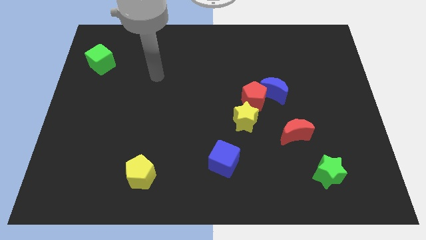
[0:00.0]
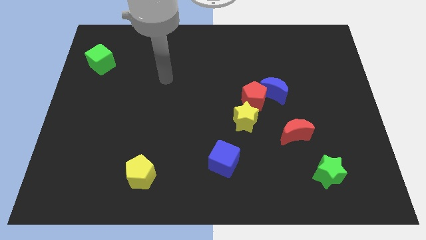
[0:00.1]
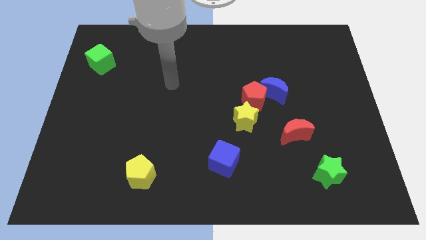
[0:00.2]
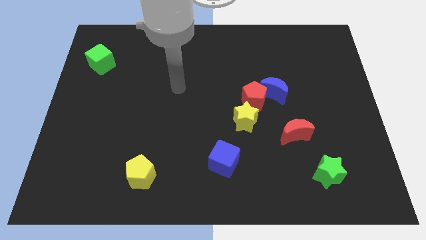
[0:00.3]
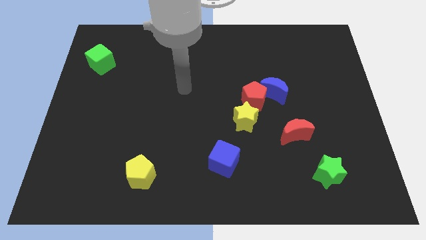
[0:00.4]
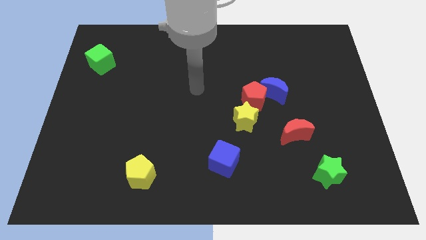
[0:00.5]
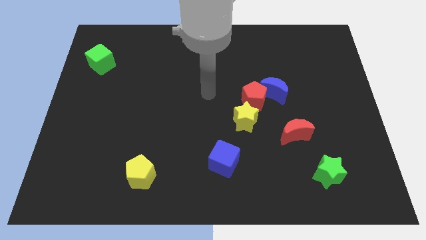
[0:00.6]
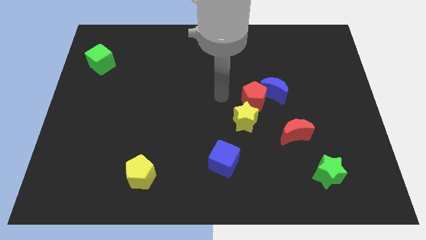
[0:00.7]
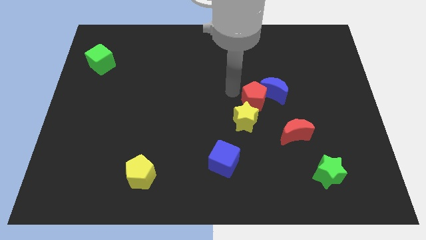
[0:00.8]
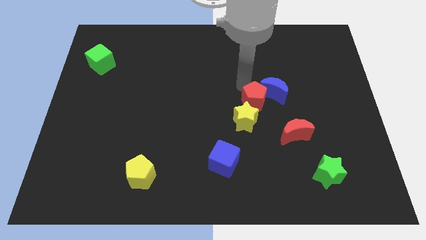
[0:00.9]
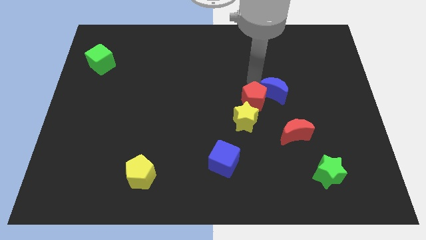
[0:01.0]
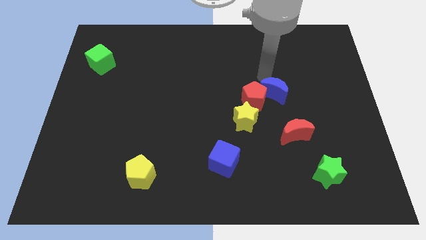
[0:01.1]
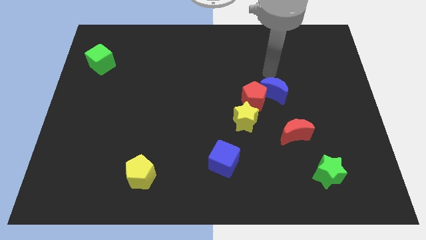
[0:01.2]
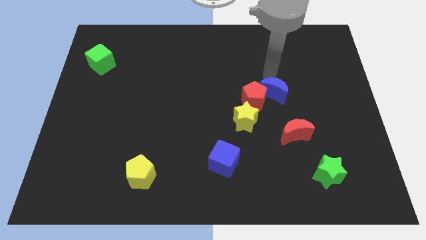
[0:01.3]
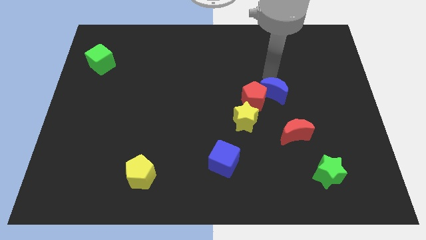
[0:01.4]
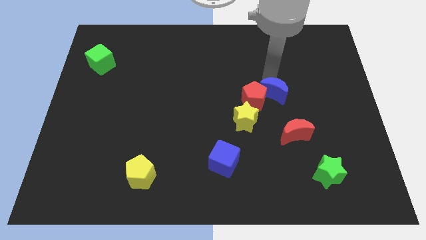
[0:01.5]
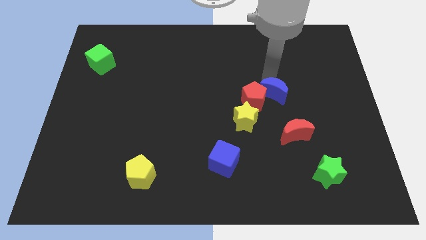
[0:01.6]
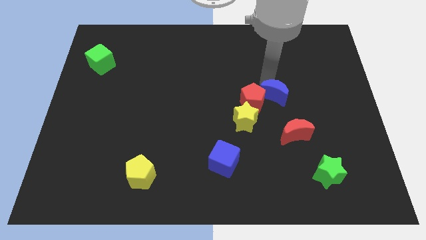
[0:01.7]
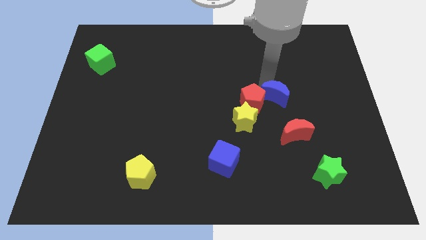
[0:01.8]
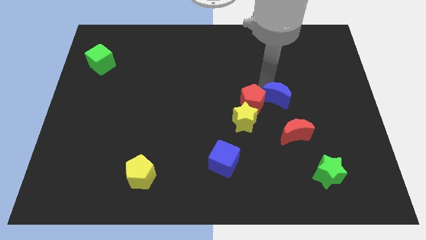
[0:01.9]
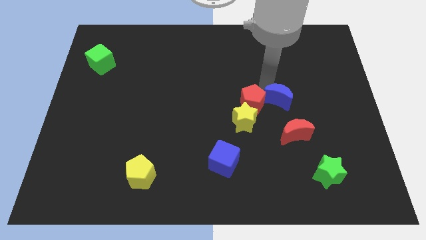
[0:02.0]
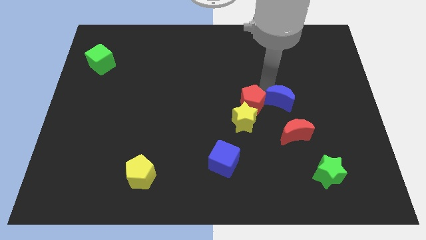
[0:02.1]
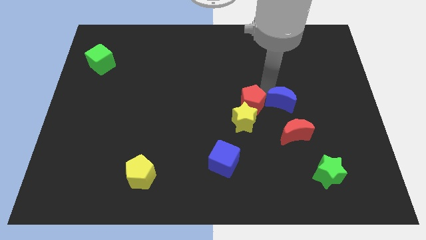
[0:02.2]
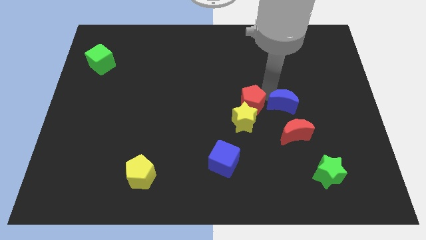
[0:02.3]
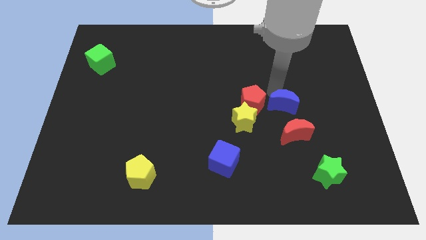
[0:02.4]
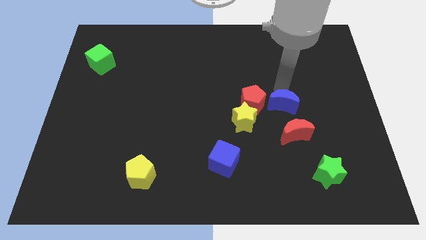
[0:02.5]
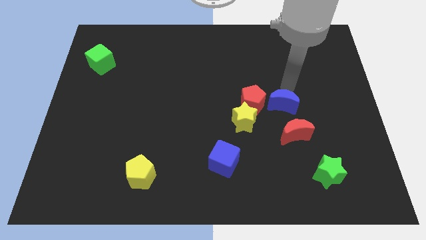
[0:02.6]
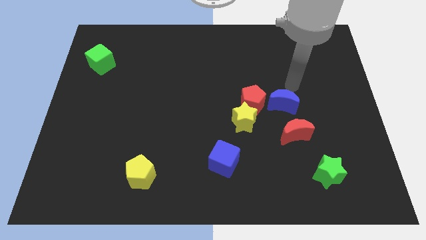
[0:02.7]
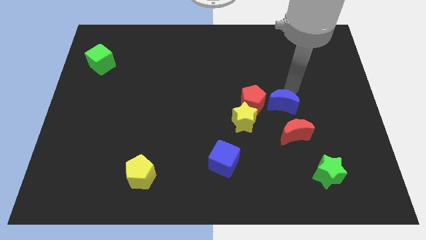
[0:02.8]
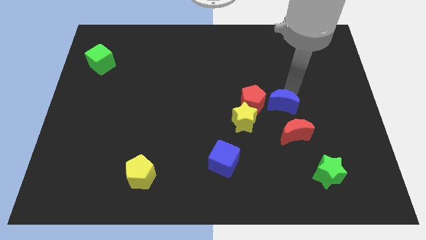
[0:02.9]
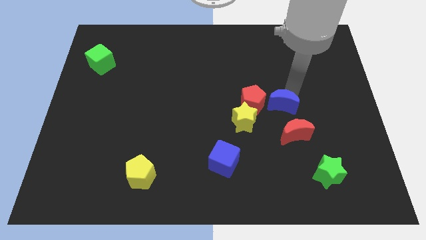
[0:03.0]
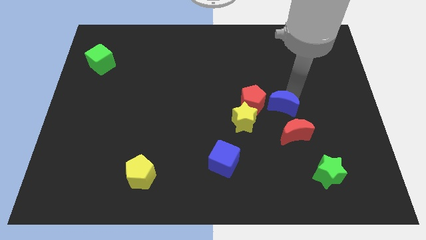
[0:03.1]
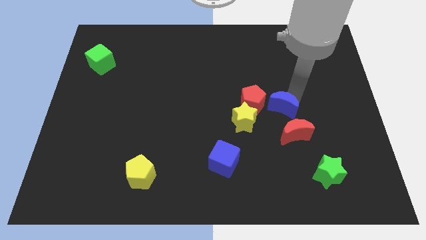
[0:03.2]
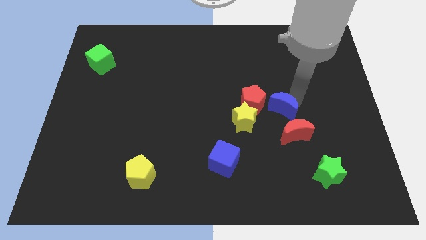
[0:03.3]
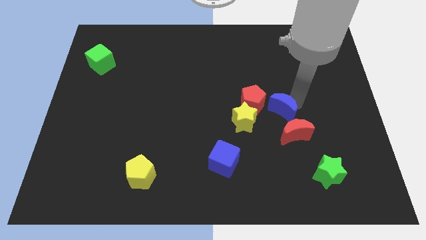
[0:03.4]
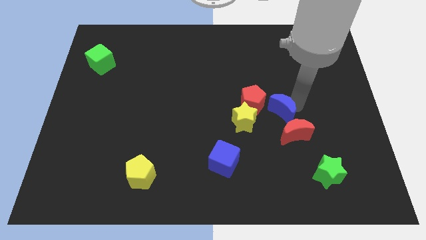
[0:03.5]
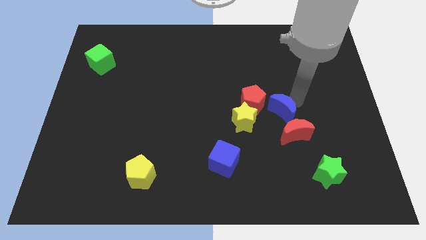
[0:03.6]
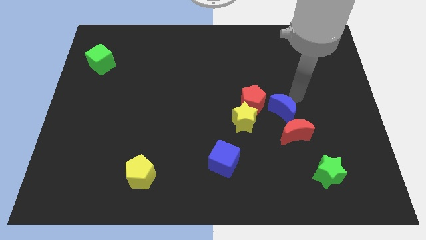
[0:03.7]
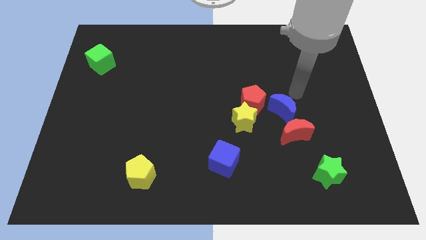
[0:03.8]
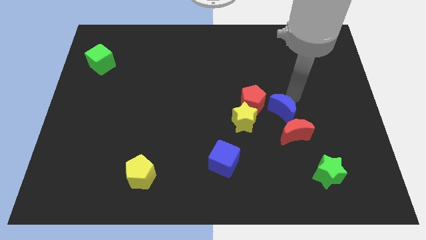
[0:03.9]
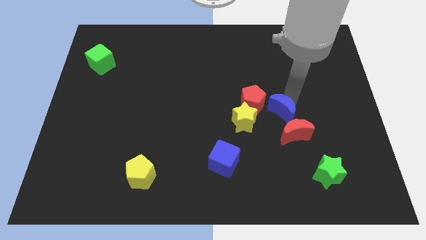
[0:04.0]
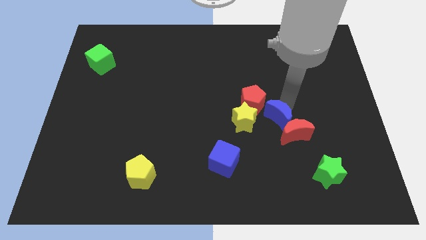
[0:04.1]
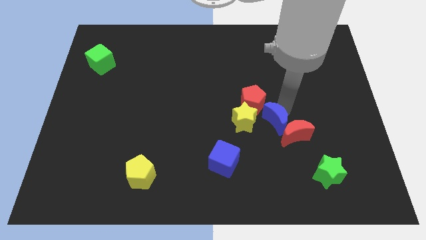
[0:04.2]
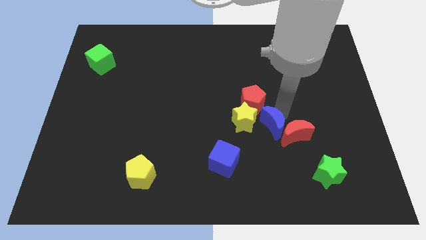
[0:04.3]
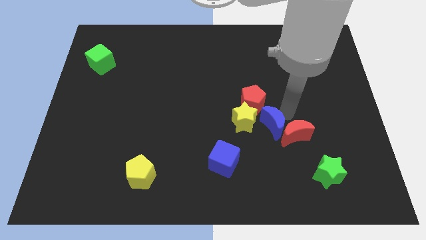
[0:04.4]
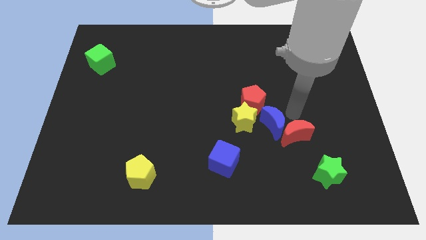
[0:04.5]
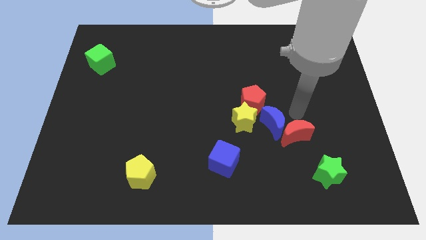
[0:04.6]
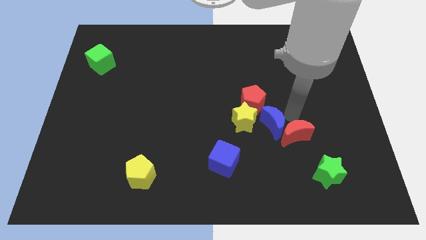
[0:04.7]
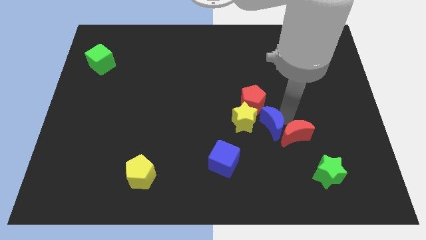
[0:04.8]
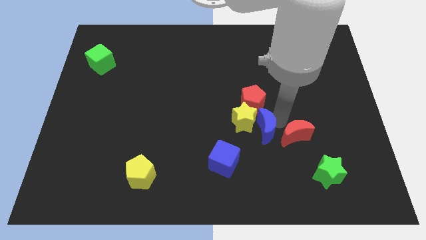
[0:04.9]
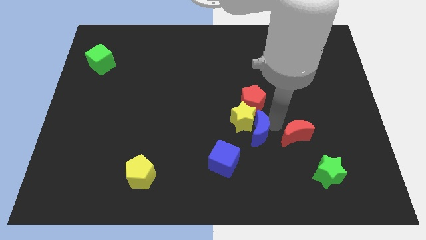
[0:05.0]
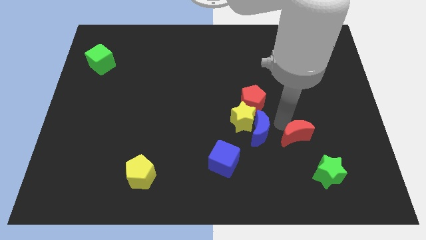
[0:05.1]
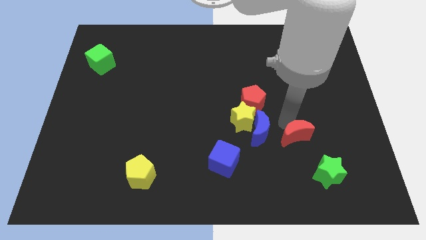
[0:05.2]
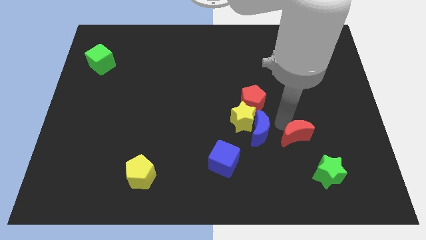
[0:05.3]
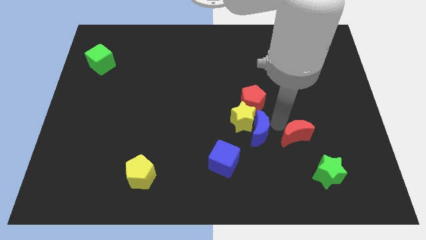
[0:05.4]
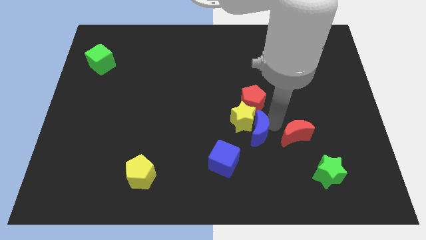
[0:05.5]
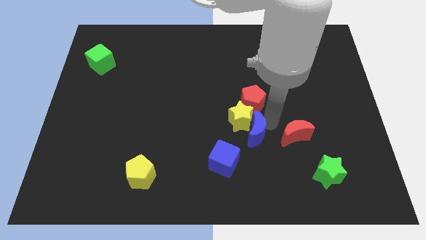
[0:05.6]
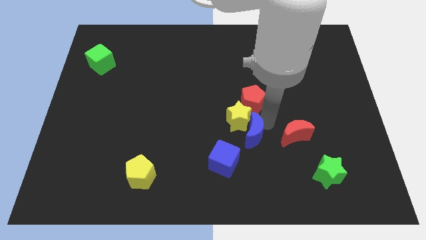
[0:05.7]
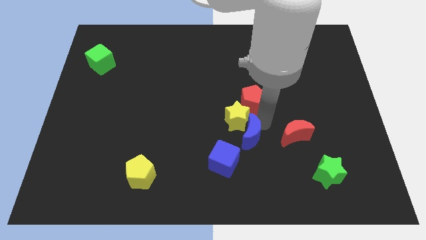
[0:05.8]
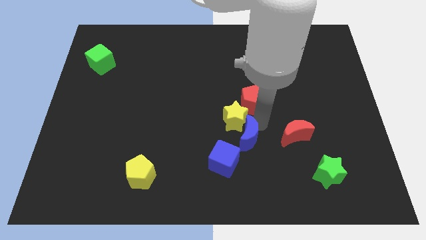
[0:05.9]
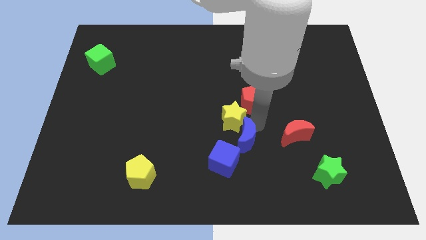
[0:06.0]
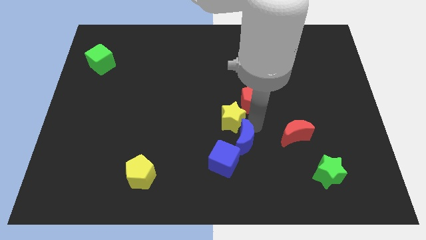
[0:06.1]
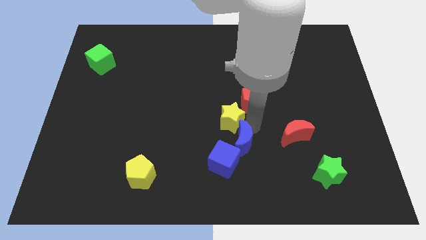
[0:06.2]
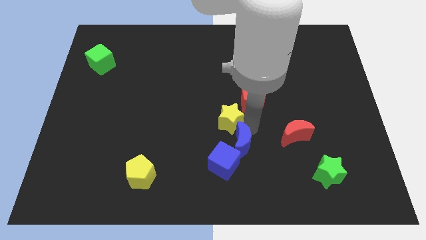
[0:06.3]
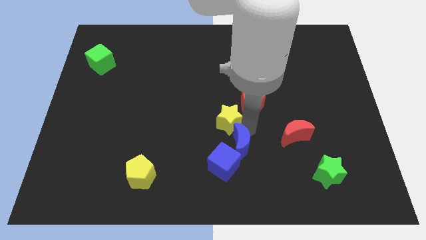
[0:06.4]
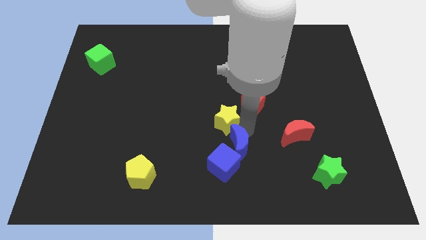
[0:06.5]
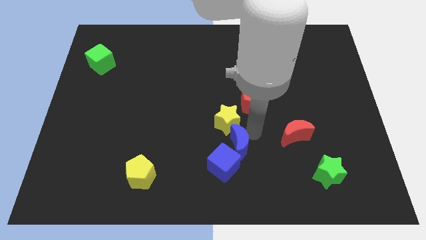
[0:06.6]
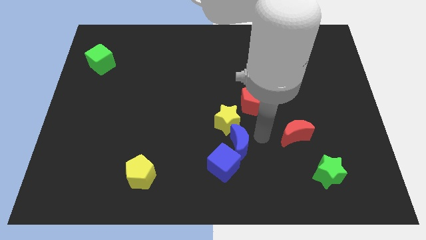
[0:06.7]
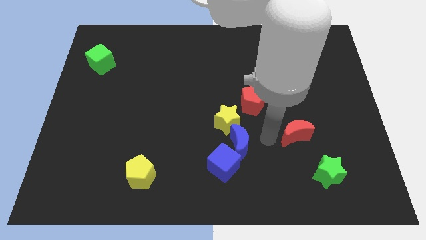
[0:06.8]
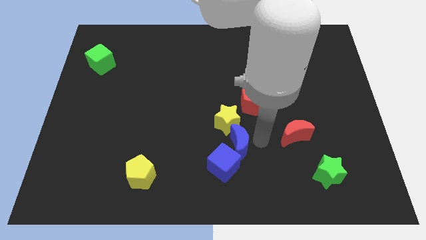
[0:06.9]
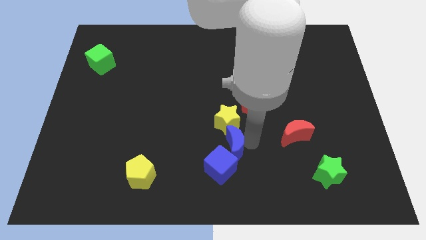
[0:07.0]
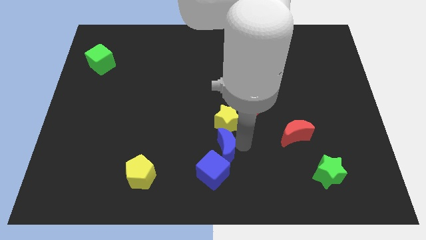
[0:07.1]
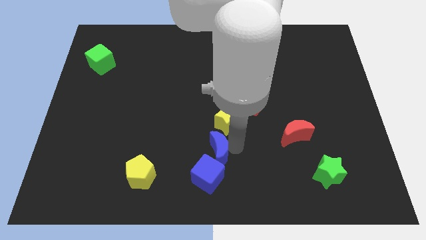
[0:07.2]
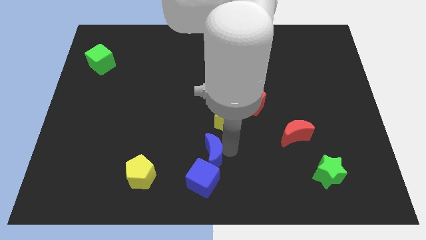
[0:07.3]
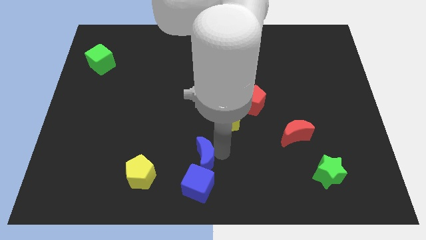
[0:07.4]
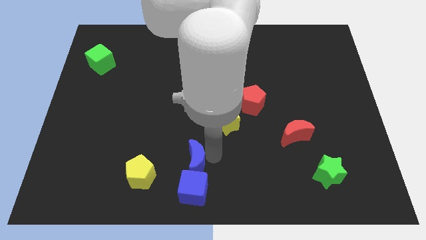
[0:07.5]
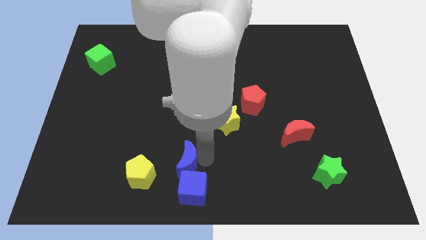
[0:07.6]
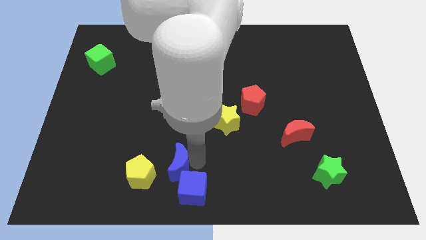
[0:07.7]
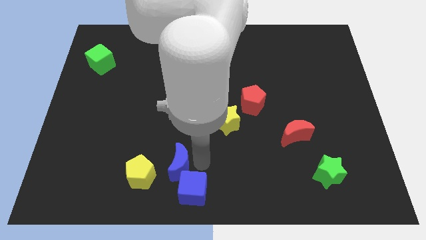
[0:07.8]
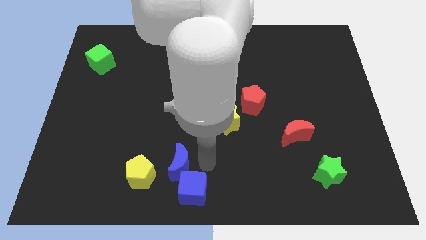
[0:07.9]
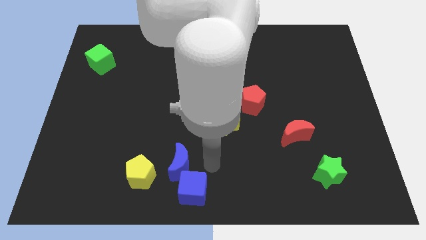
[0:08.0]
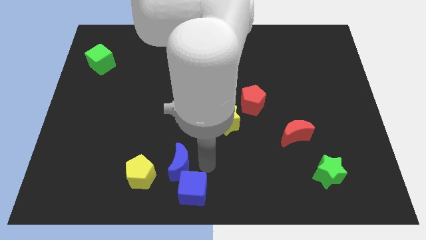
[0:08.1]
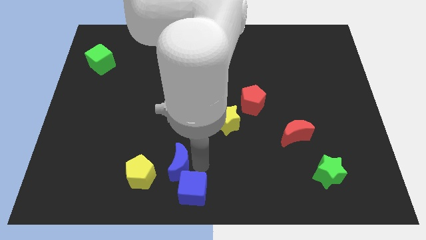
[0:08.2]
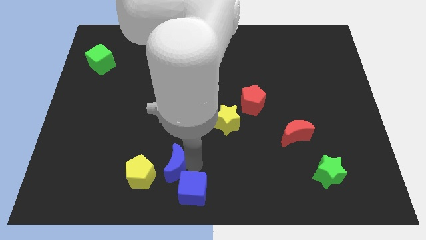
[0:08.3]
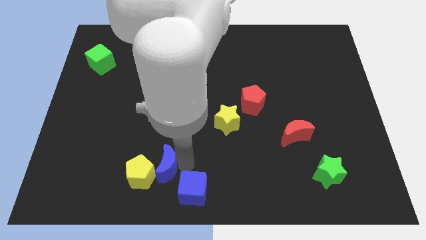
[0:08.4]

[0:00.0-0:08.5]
push the blue moon close to the yellow pentagon
